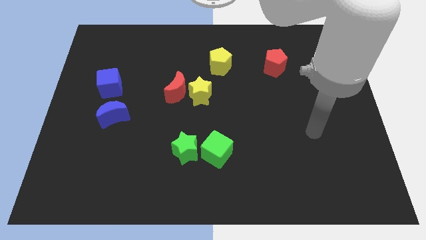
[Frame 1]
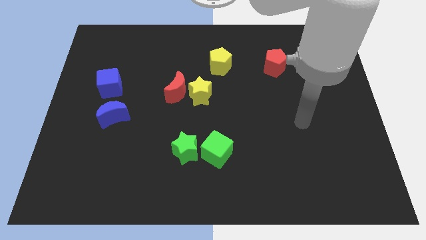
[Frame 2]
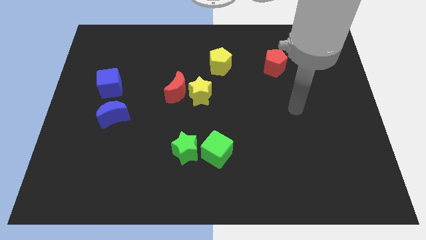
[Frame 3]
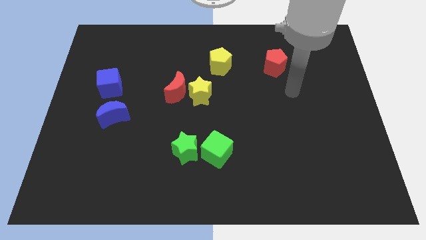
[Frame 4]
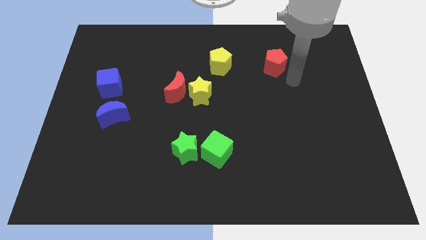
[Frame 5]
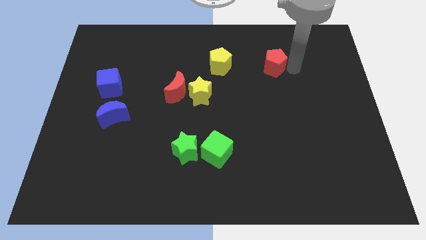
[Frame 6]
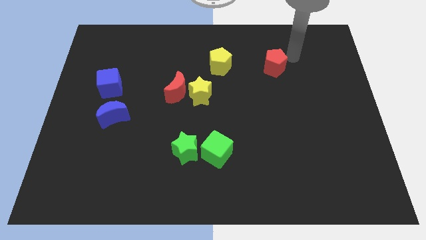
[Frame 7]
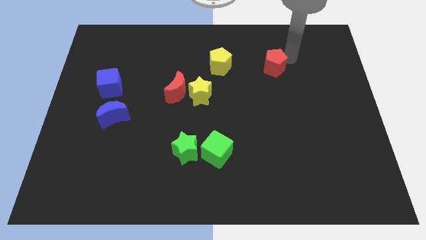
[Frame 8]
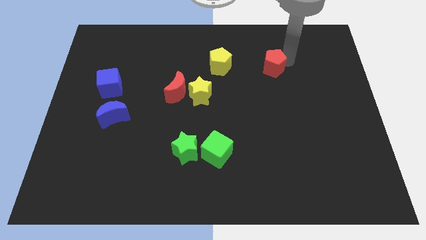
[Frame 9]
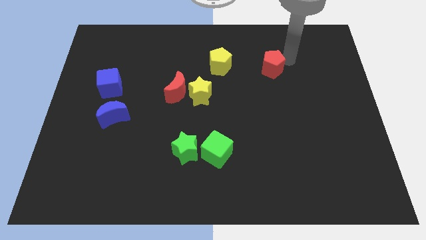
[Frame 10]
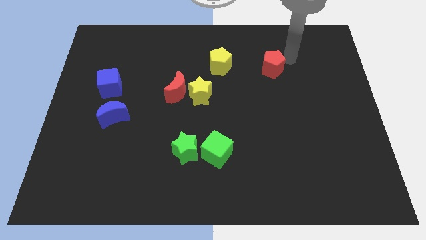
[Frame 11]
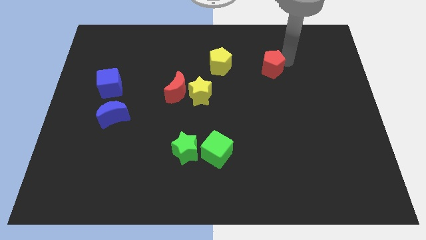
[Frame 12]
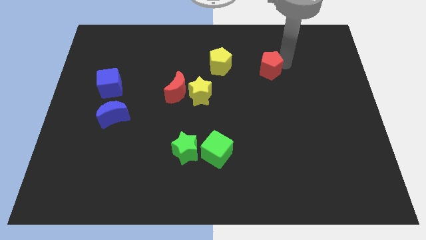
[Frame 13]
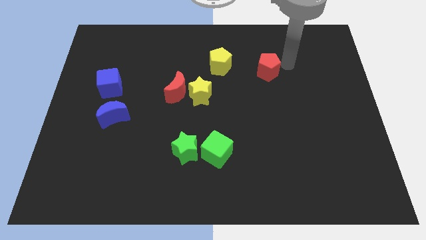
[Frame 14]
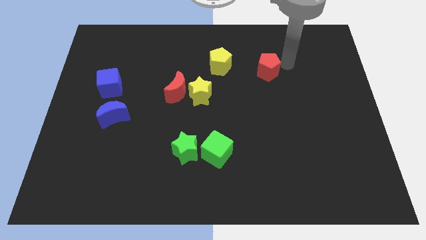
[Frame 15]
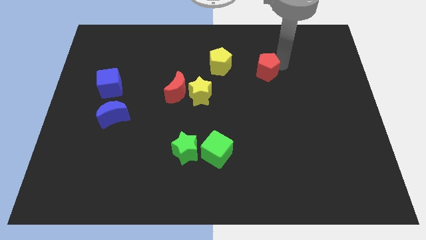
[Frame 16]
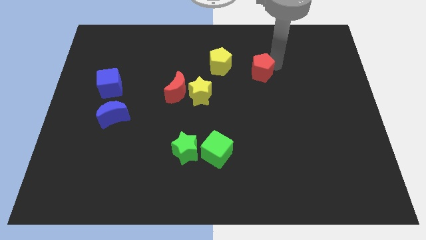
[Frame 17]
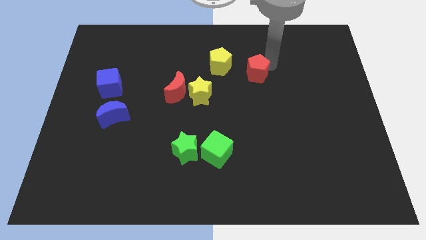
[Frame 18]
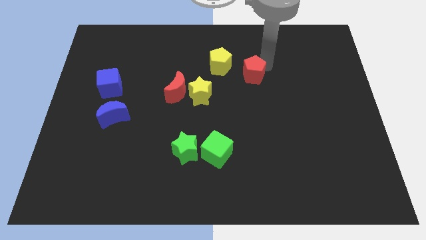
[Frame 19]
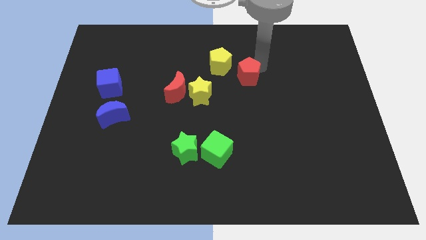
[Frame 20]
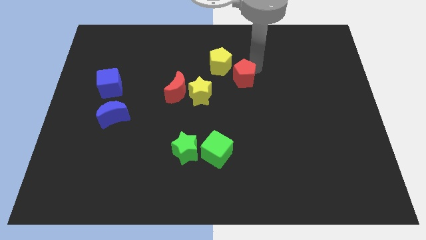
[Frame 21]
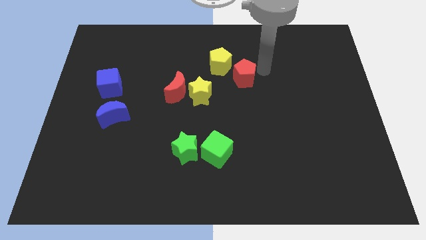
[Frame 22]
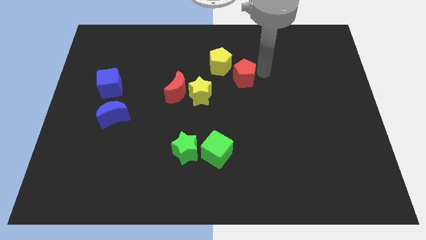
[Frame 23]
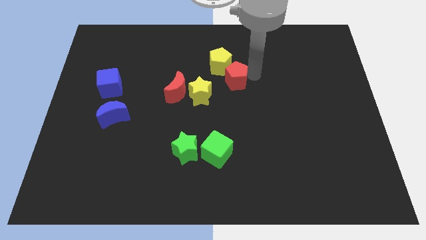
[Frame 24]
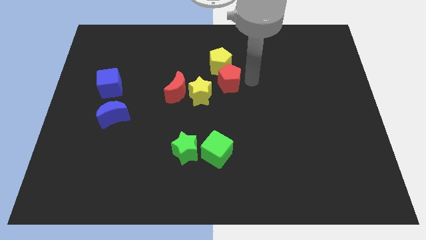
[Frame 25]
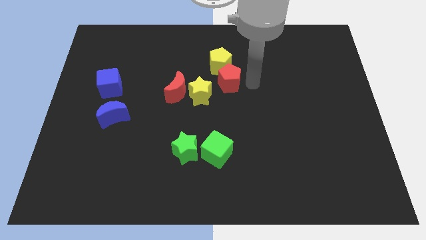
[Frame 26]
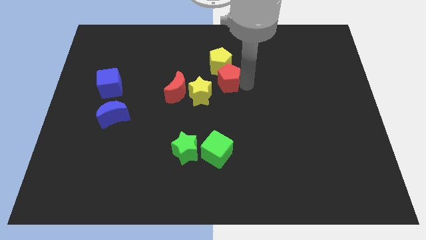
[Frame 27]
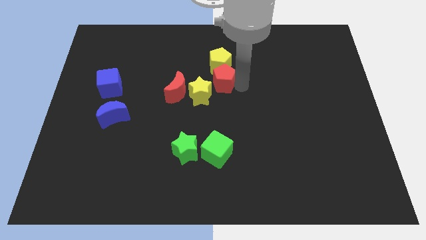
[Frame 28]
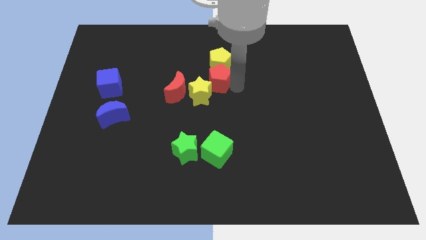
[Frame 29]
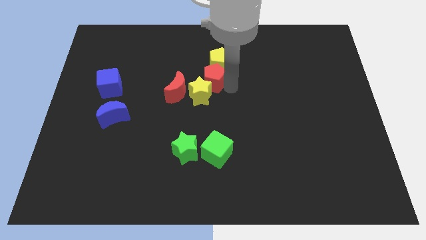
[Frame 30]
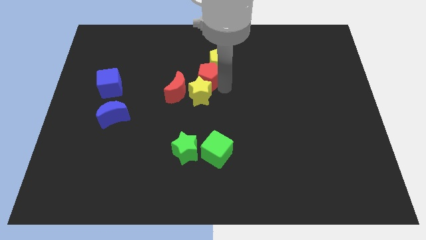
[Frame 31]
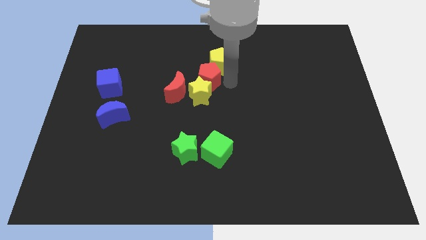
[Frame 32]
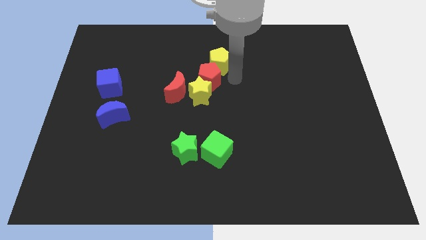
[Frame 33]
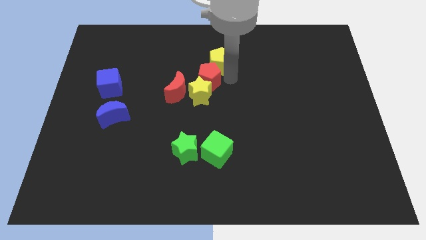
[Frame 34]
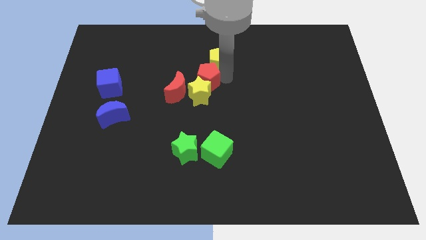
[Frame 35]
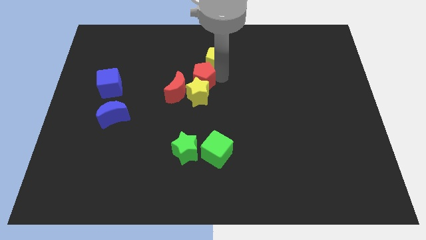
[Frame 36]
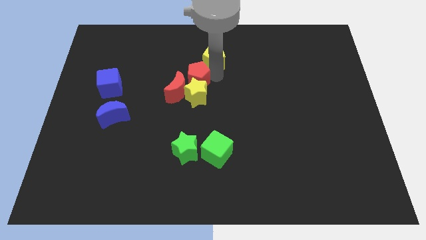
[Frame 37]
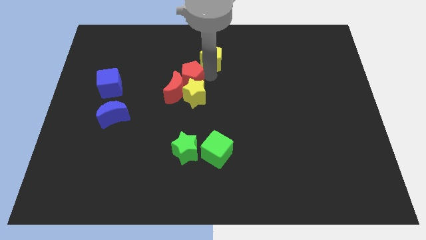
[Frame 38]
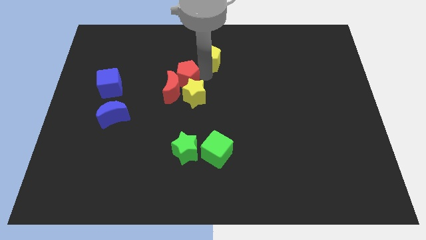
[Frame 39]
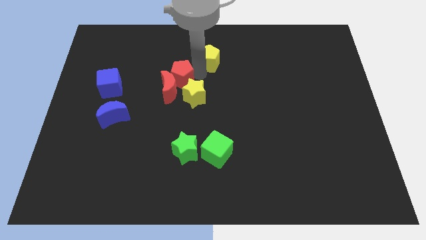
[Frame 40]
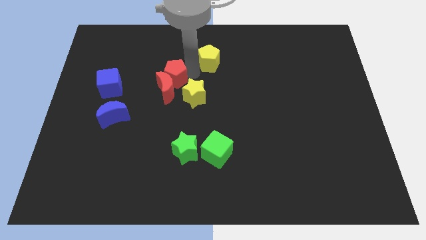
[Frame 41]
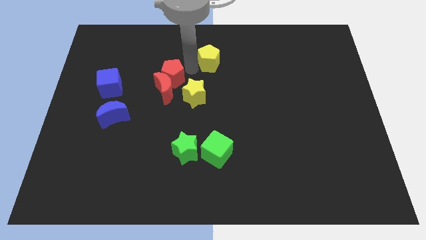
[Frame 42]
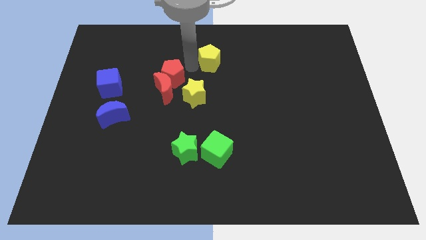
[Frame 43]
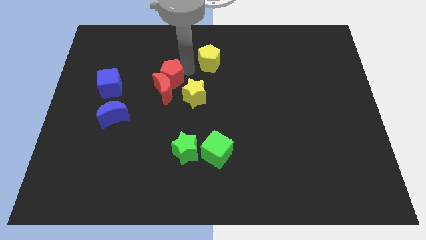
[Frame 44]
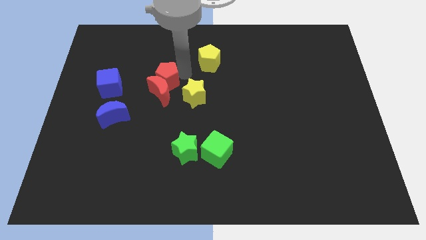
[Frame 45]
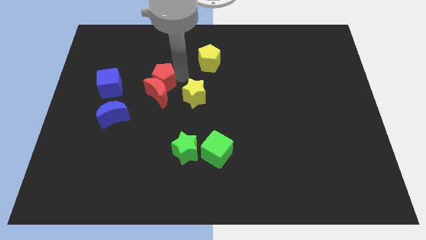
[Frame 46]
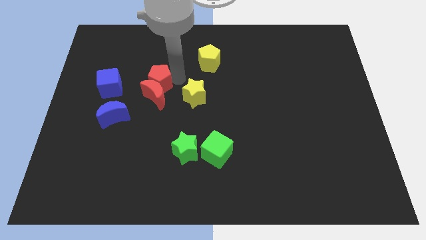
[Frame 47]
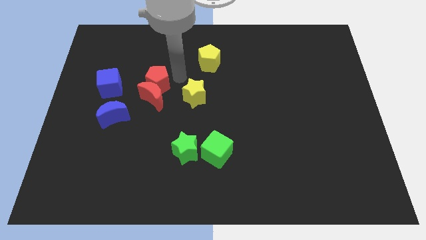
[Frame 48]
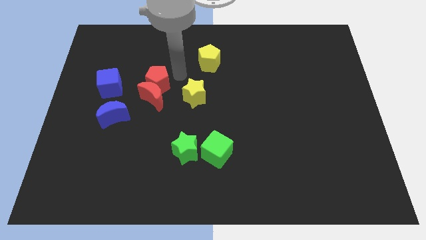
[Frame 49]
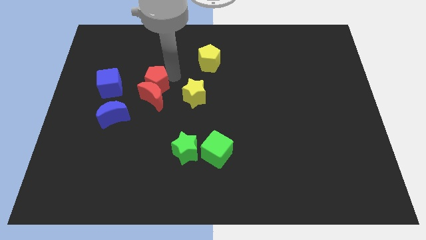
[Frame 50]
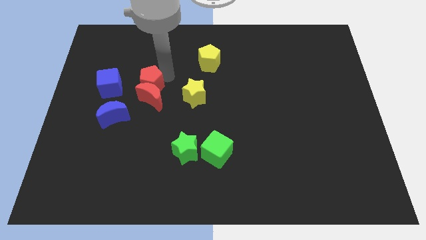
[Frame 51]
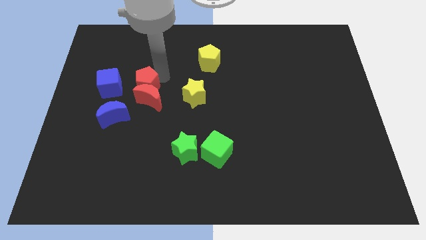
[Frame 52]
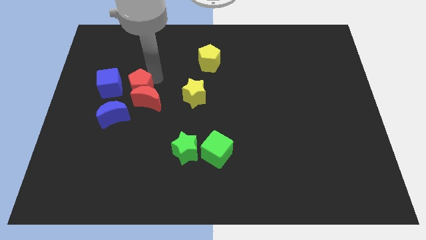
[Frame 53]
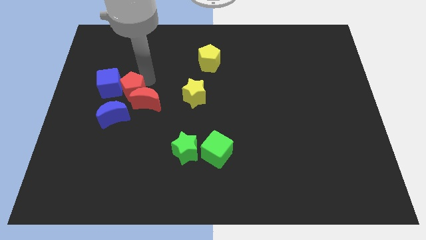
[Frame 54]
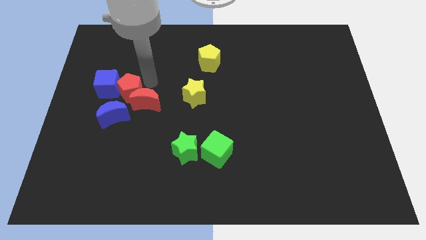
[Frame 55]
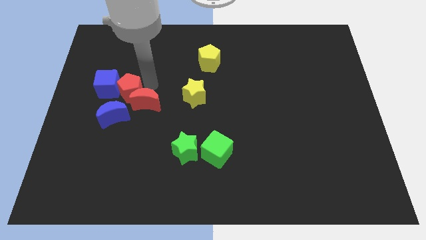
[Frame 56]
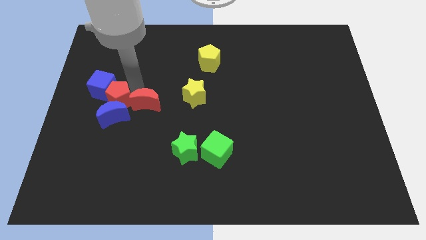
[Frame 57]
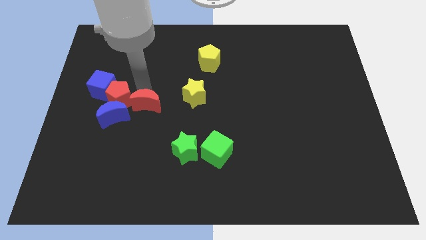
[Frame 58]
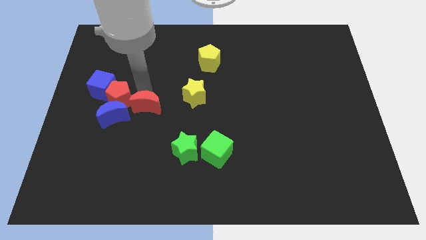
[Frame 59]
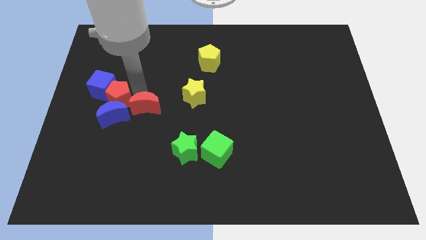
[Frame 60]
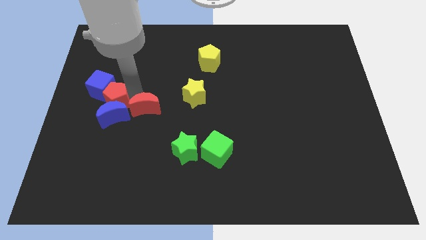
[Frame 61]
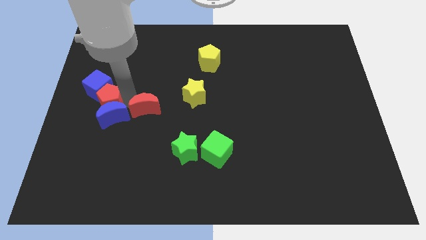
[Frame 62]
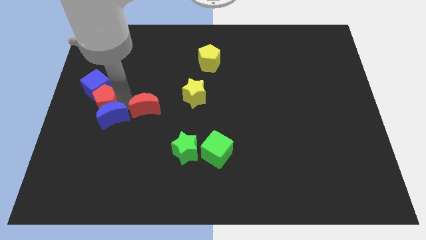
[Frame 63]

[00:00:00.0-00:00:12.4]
slide the red pentagon to the center left
